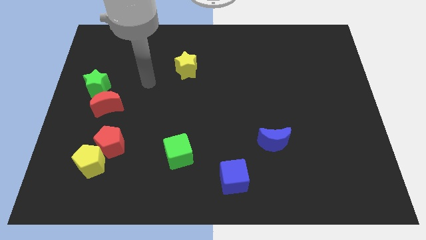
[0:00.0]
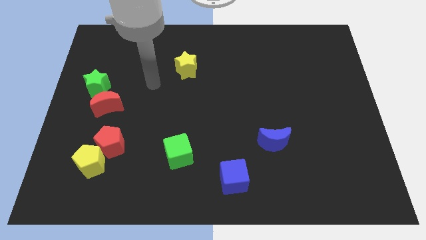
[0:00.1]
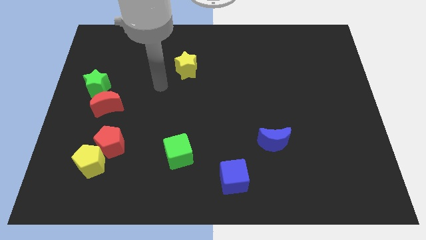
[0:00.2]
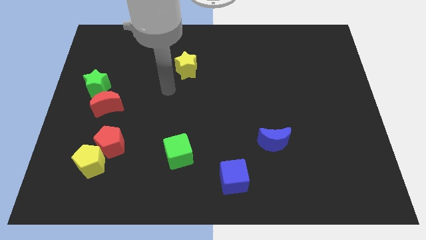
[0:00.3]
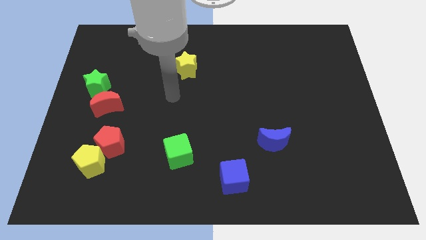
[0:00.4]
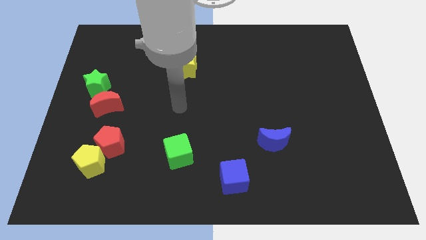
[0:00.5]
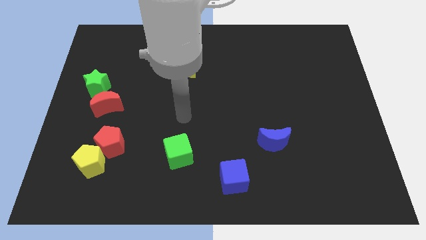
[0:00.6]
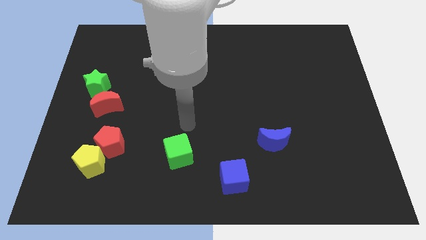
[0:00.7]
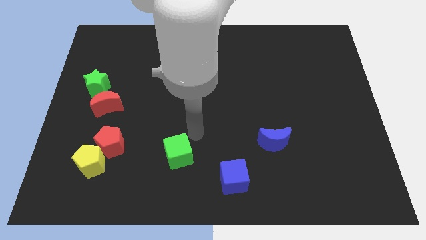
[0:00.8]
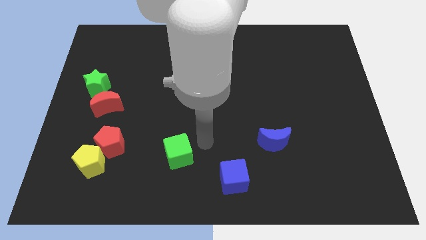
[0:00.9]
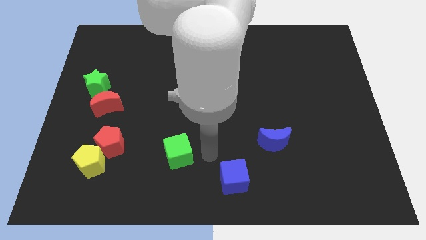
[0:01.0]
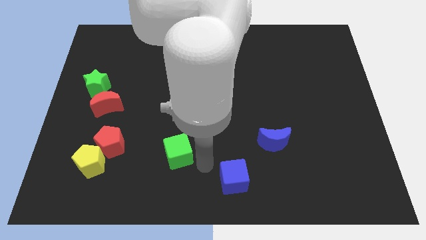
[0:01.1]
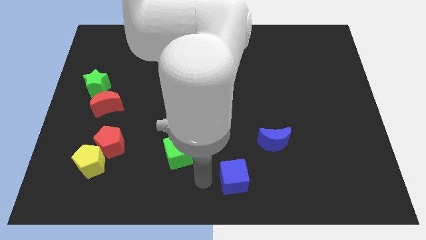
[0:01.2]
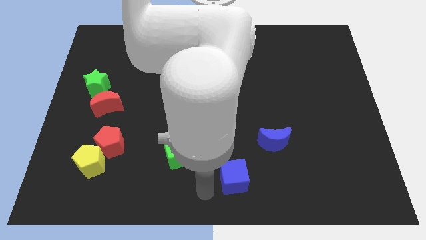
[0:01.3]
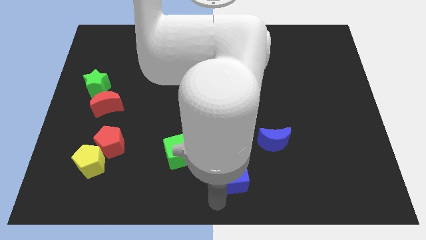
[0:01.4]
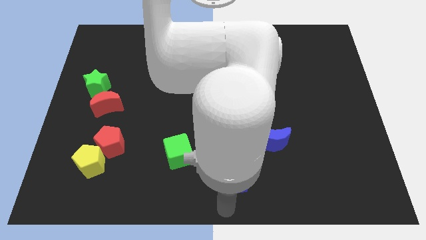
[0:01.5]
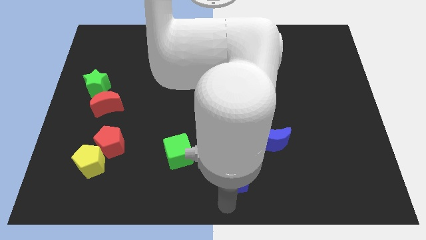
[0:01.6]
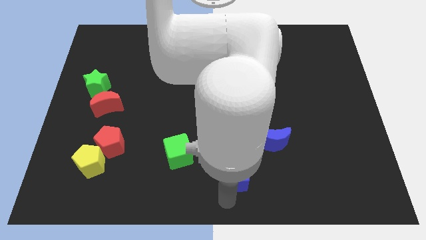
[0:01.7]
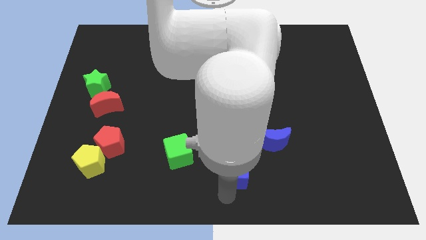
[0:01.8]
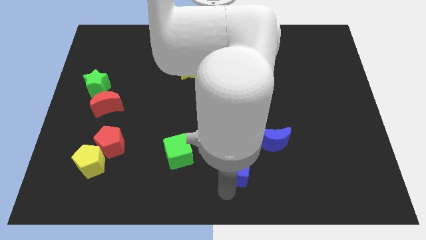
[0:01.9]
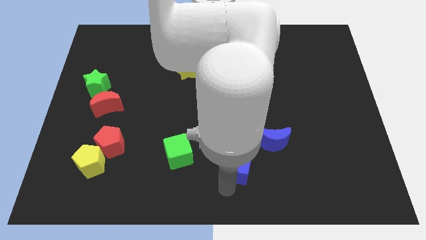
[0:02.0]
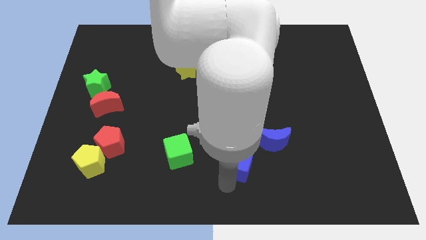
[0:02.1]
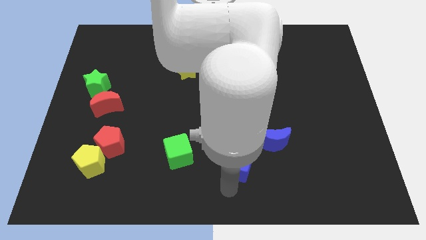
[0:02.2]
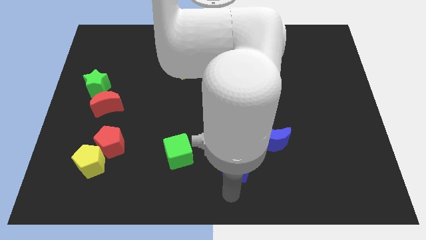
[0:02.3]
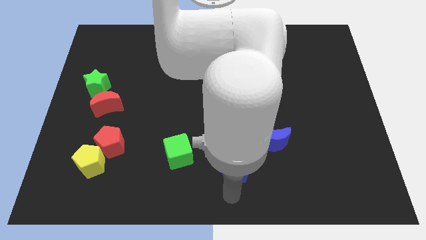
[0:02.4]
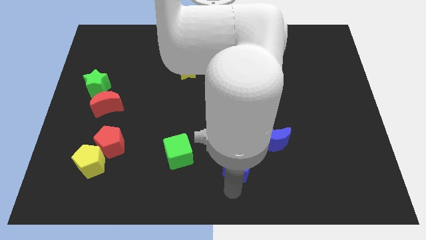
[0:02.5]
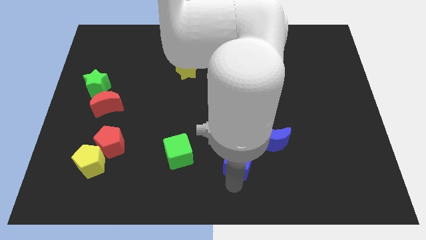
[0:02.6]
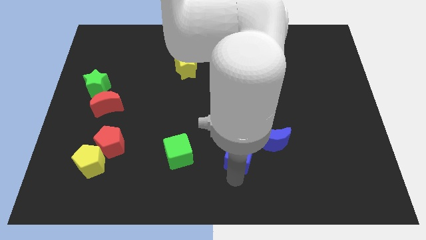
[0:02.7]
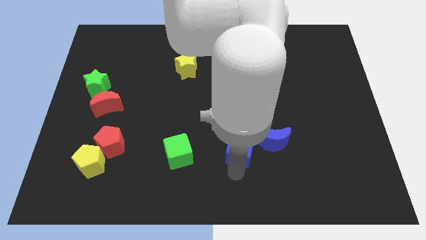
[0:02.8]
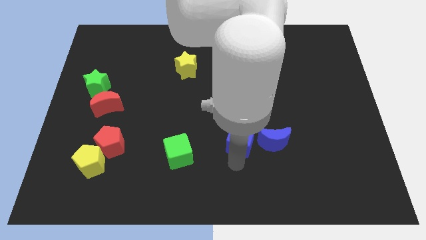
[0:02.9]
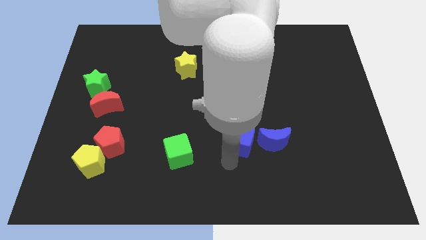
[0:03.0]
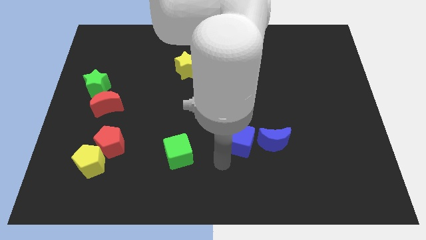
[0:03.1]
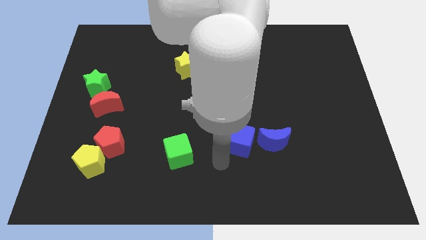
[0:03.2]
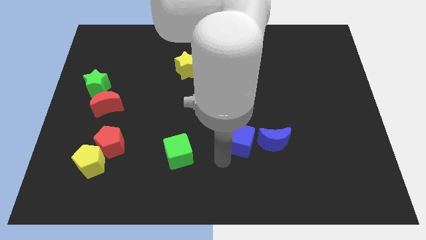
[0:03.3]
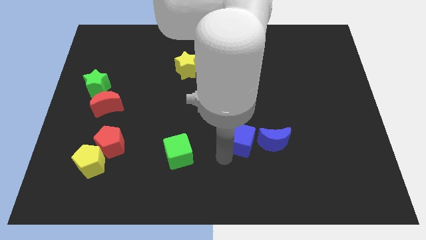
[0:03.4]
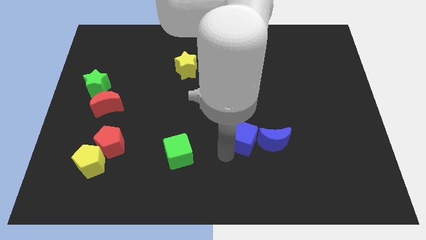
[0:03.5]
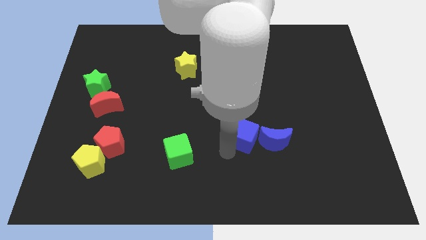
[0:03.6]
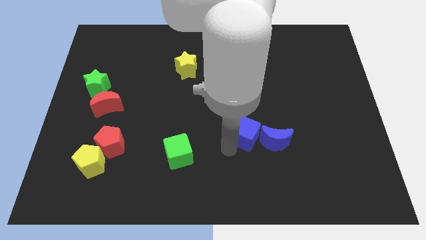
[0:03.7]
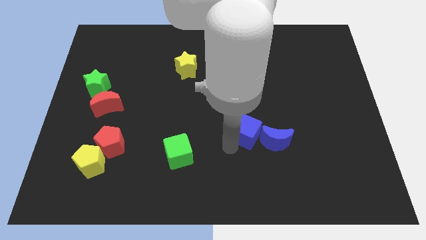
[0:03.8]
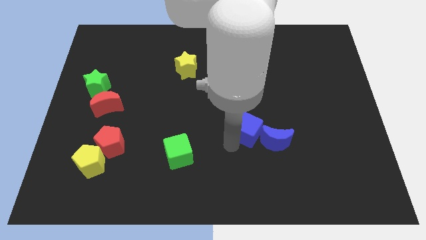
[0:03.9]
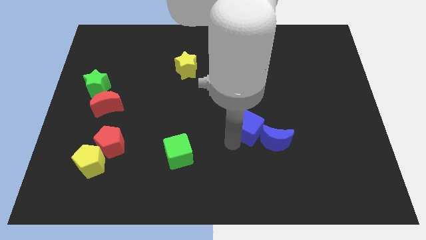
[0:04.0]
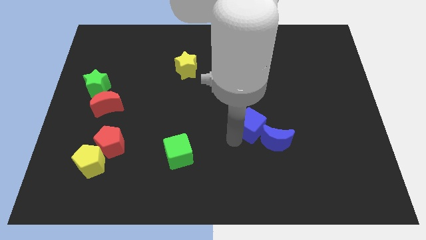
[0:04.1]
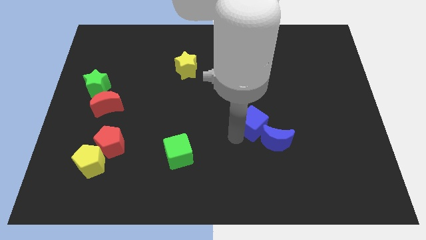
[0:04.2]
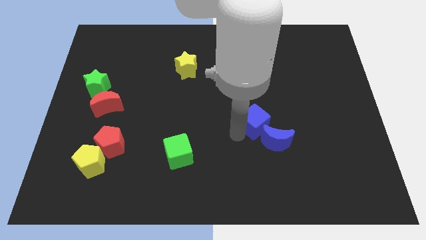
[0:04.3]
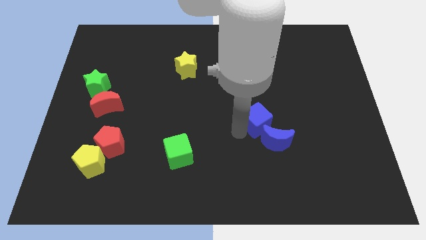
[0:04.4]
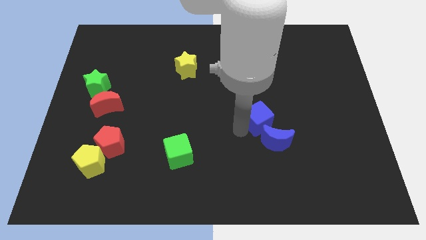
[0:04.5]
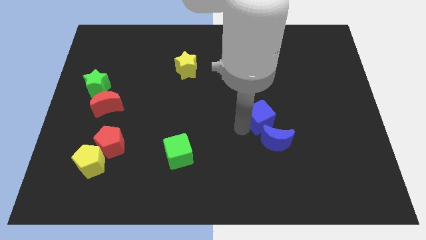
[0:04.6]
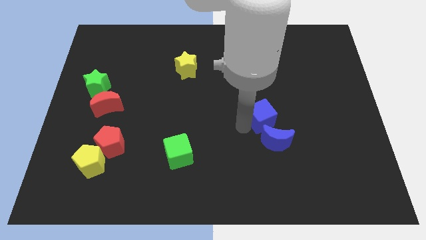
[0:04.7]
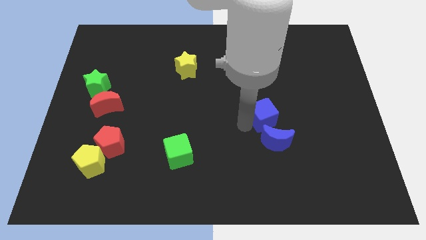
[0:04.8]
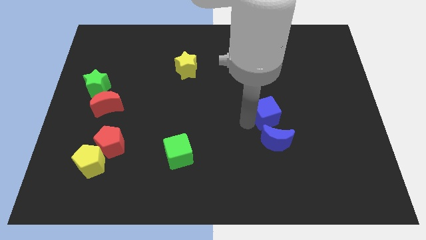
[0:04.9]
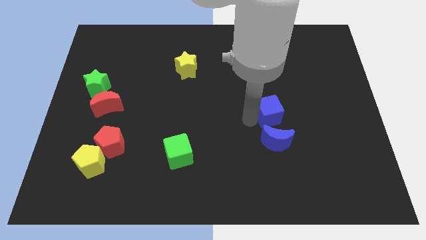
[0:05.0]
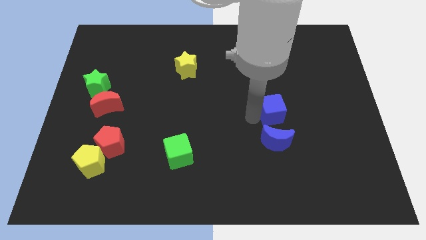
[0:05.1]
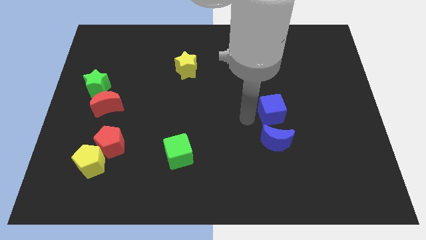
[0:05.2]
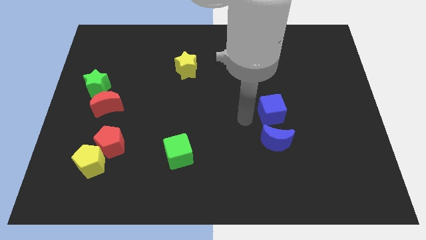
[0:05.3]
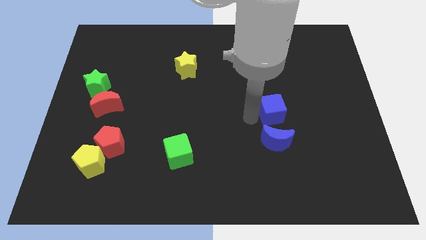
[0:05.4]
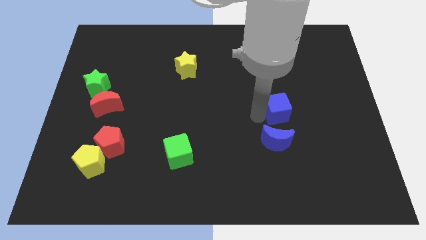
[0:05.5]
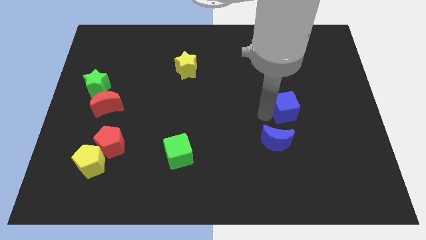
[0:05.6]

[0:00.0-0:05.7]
push the blue cube upwards and right diagonally

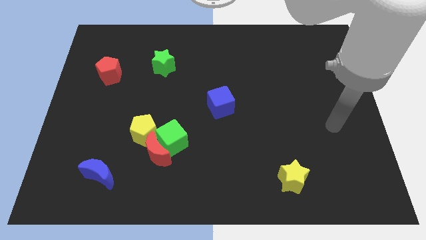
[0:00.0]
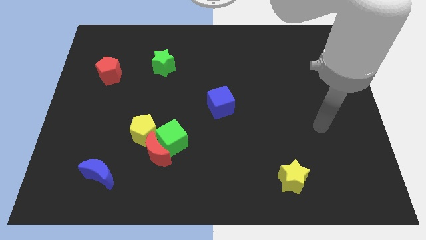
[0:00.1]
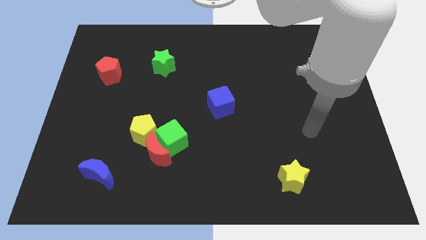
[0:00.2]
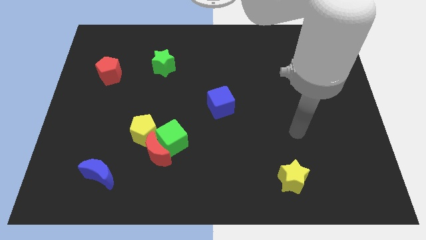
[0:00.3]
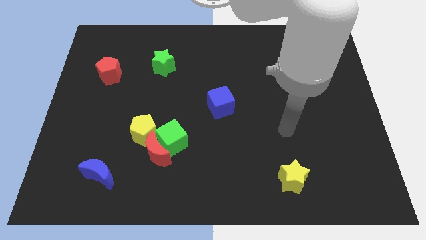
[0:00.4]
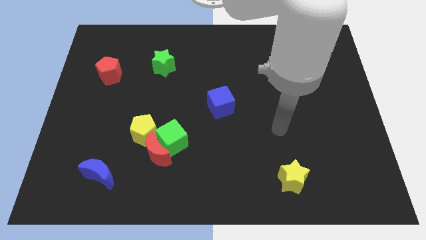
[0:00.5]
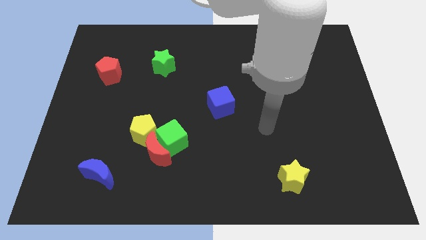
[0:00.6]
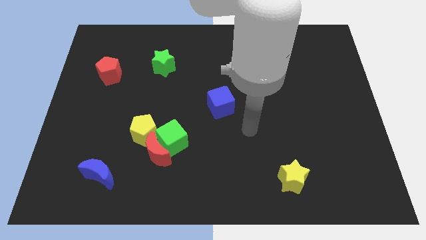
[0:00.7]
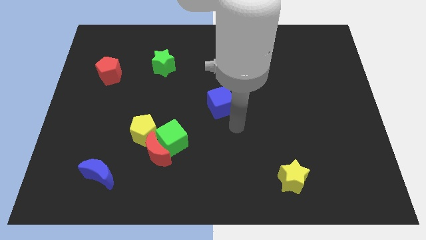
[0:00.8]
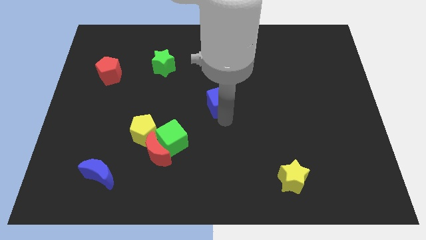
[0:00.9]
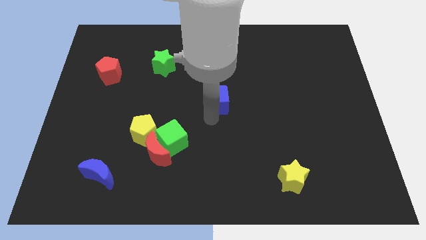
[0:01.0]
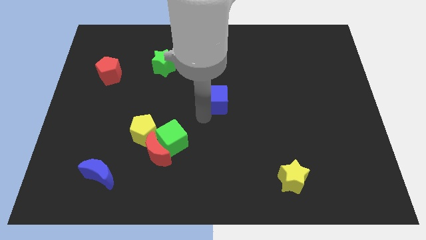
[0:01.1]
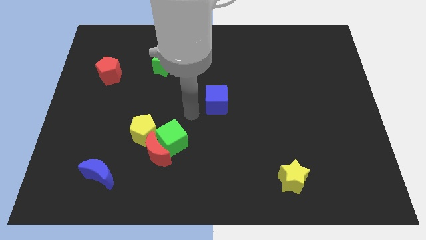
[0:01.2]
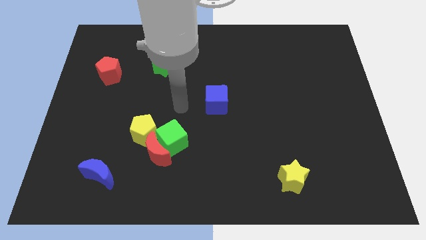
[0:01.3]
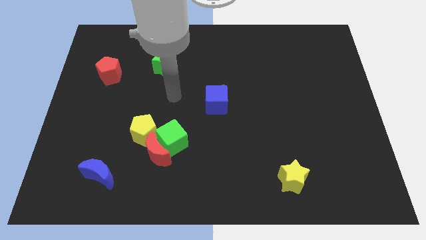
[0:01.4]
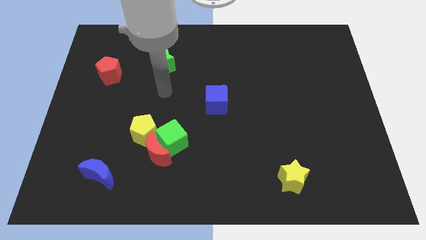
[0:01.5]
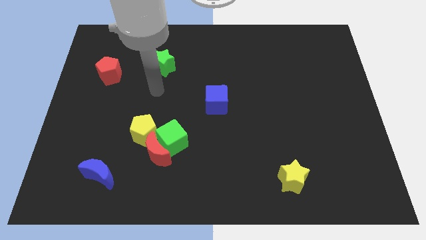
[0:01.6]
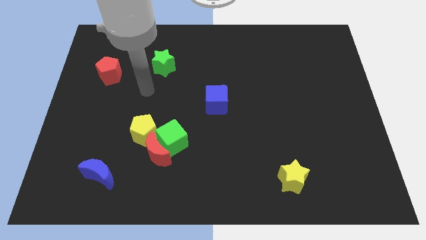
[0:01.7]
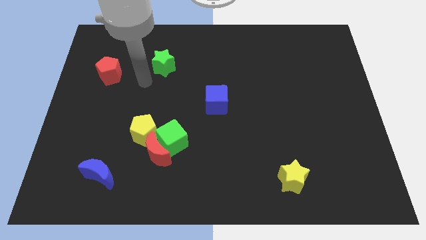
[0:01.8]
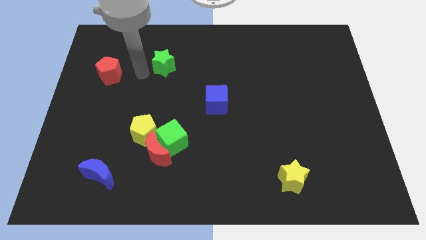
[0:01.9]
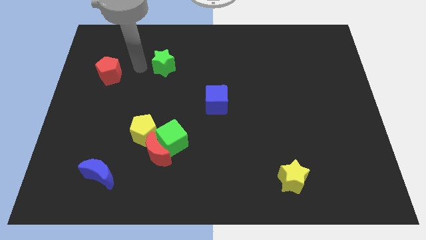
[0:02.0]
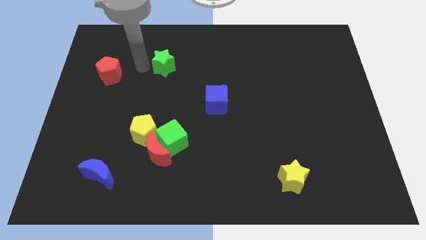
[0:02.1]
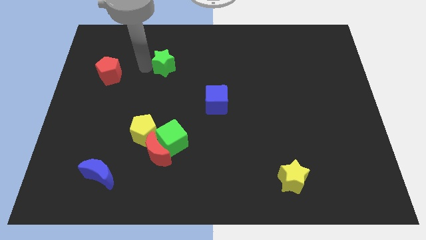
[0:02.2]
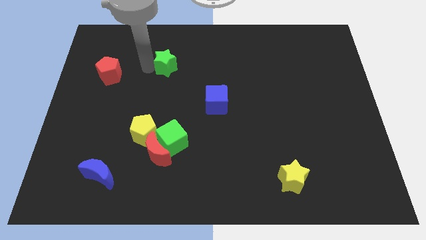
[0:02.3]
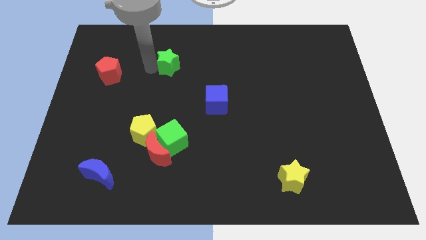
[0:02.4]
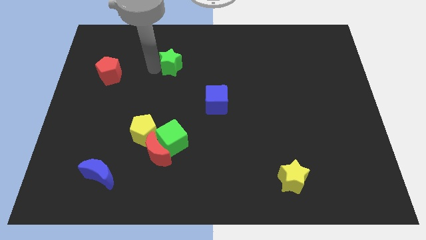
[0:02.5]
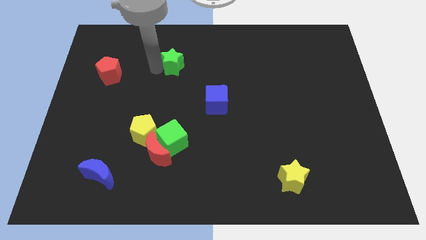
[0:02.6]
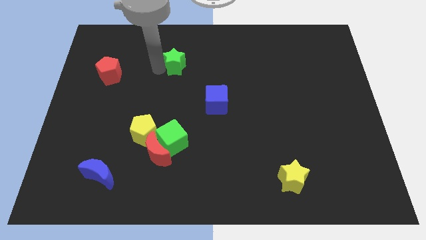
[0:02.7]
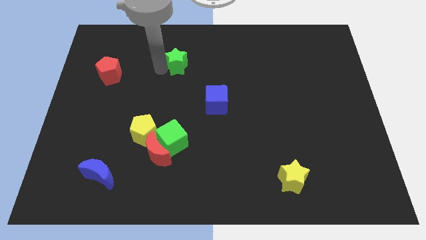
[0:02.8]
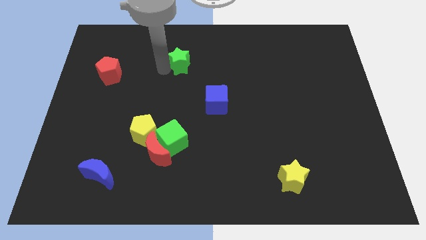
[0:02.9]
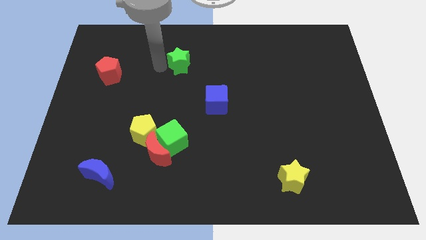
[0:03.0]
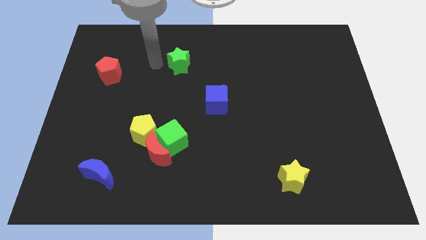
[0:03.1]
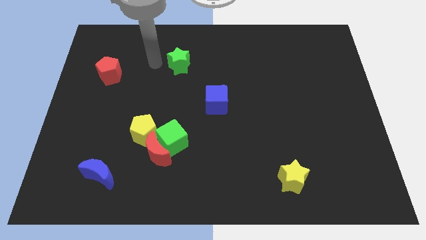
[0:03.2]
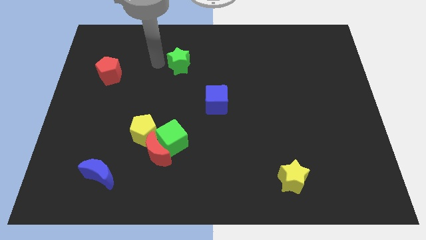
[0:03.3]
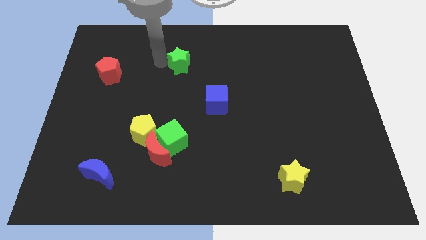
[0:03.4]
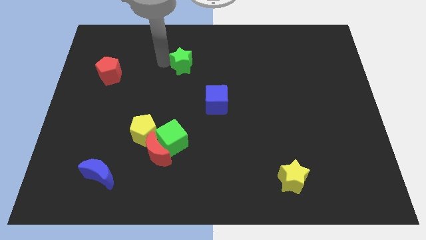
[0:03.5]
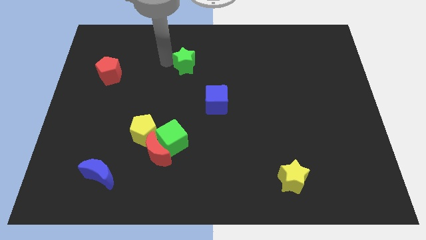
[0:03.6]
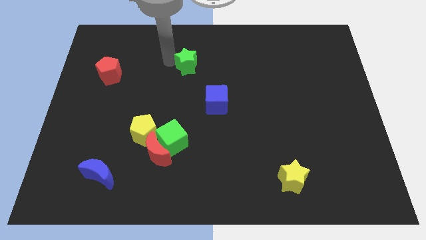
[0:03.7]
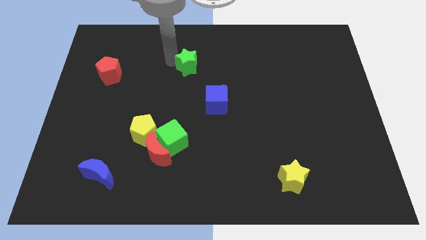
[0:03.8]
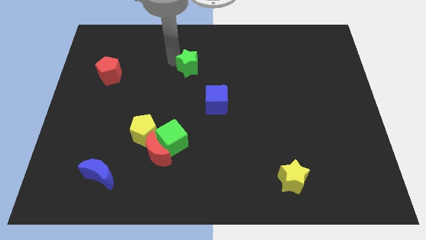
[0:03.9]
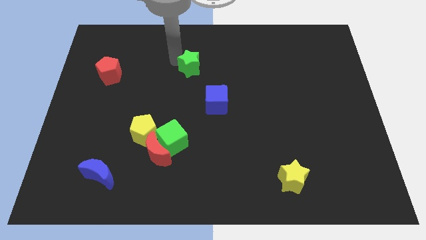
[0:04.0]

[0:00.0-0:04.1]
slightly push the green star to the right
